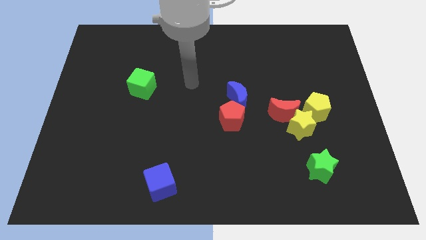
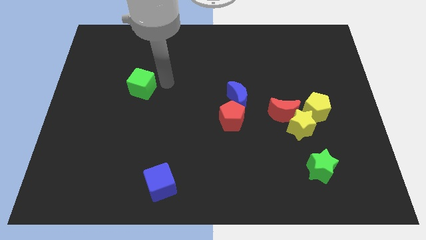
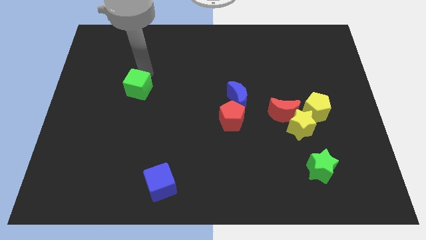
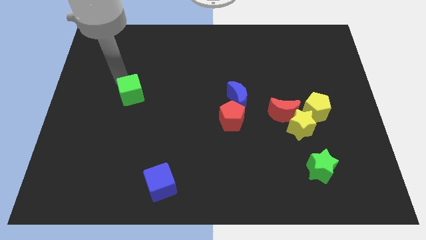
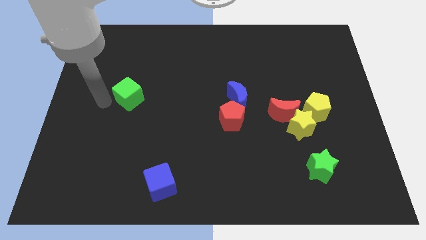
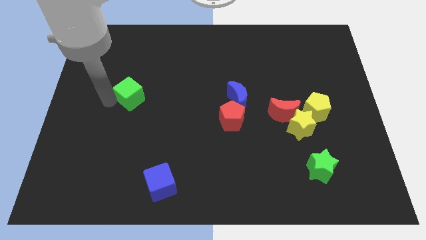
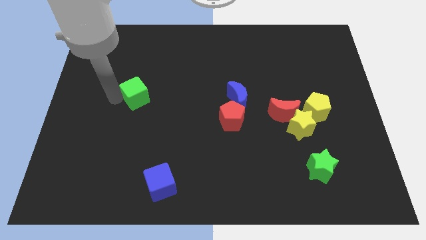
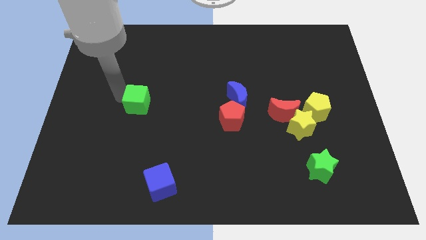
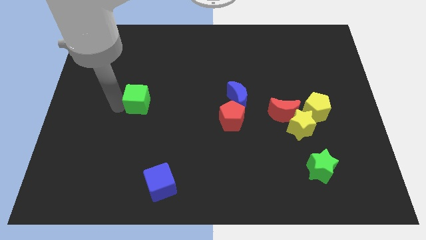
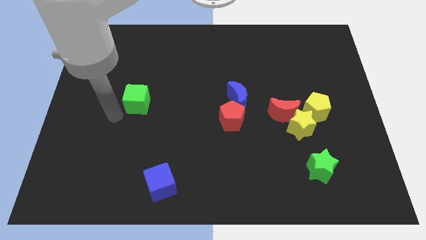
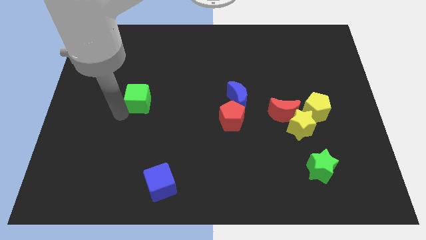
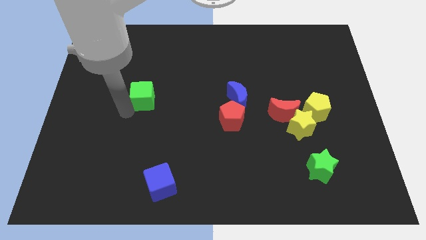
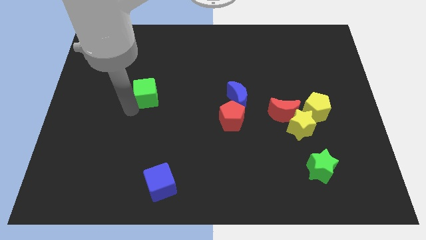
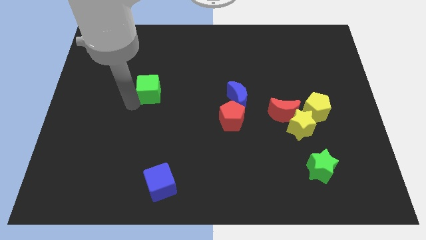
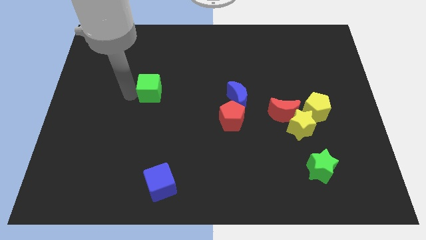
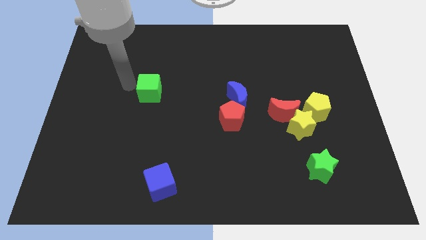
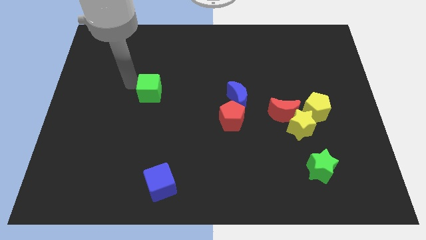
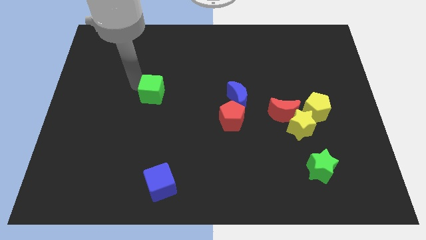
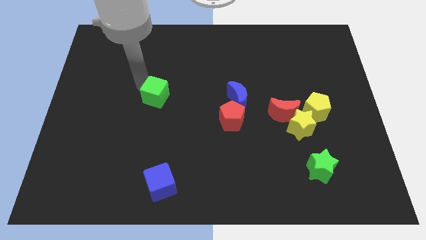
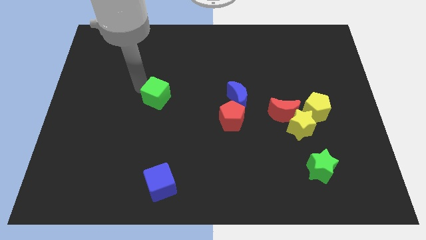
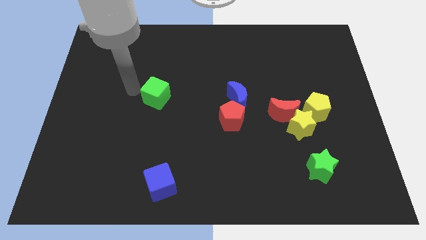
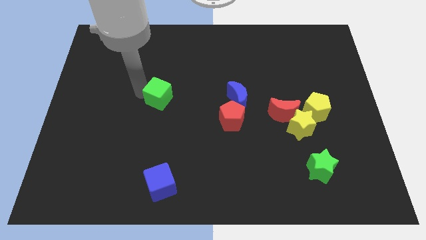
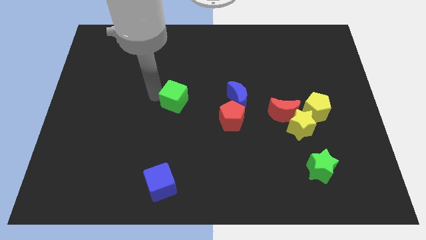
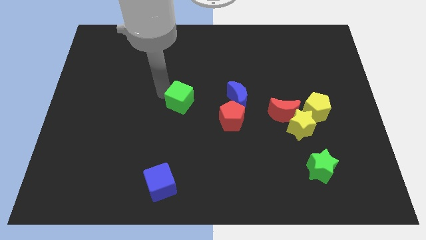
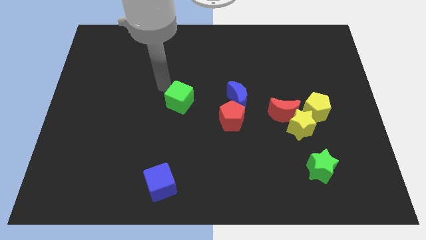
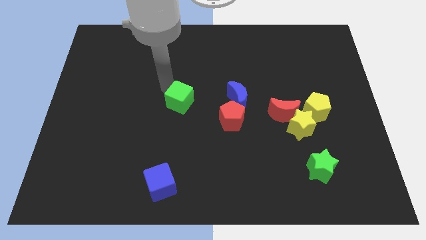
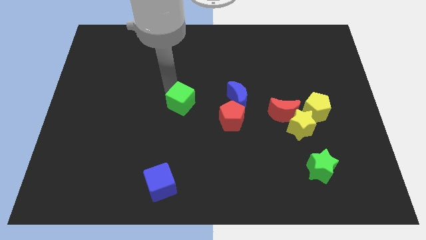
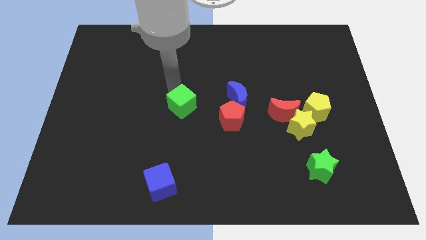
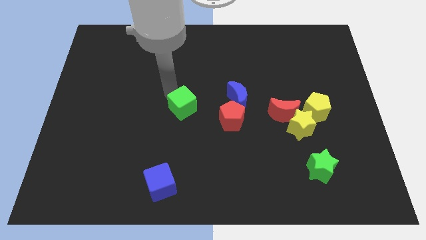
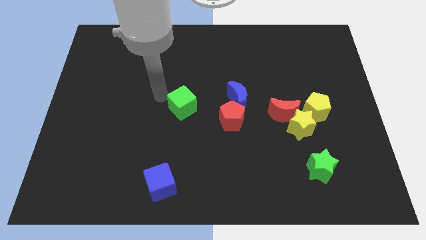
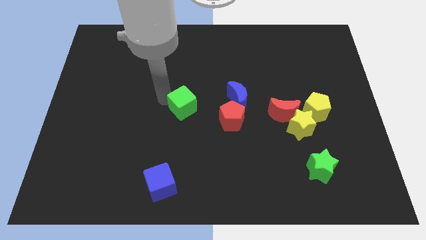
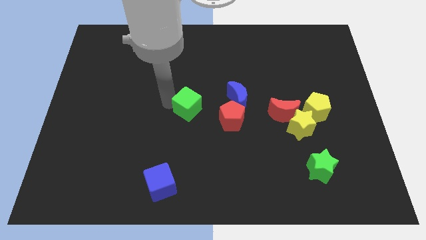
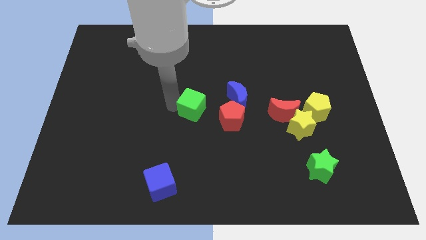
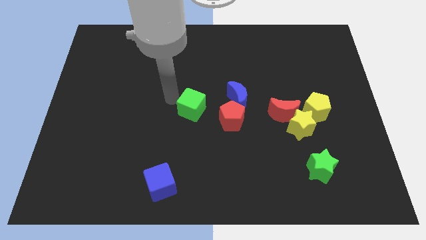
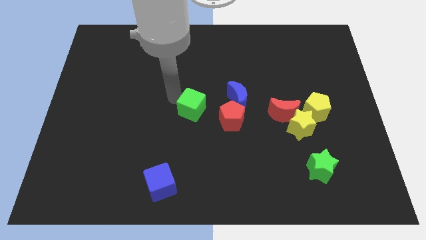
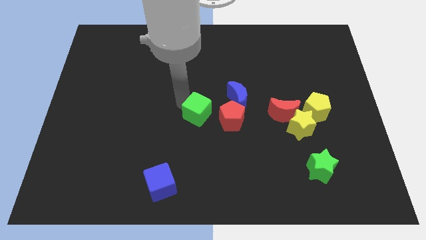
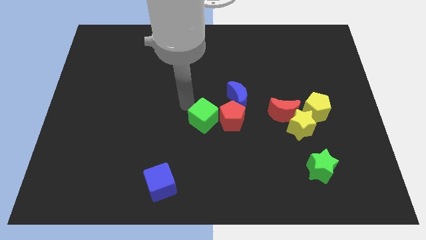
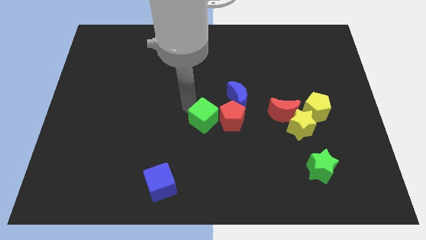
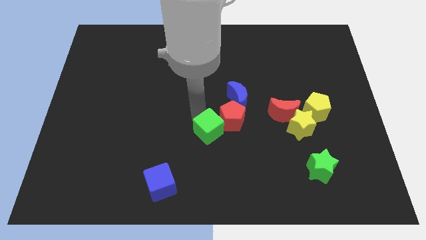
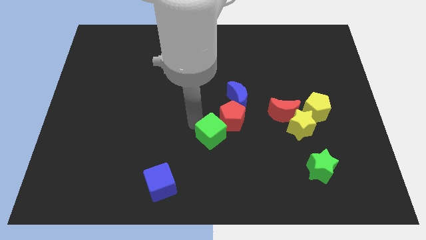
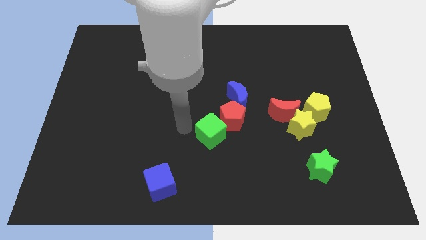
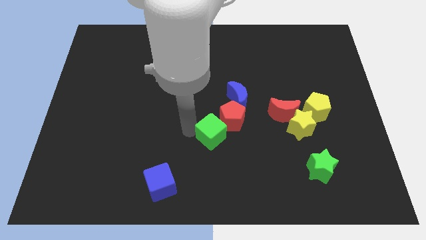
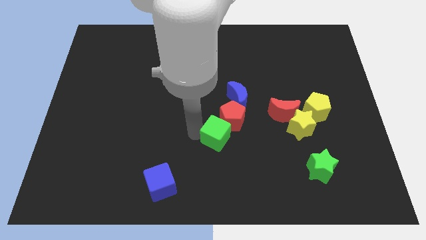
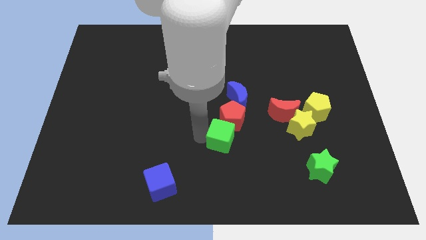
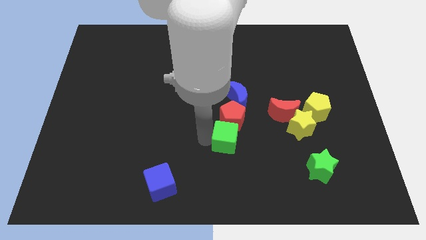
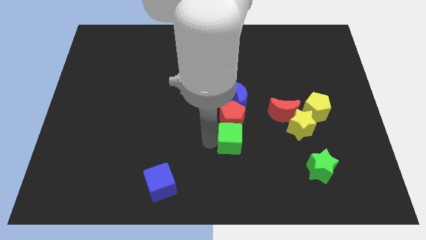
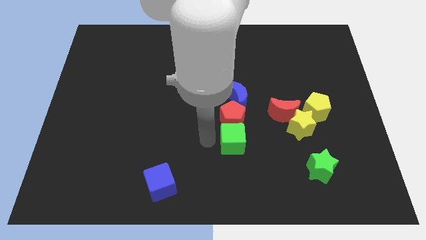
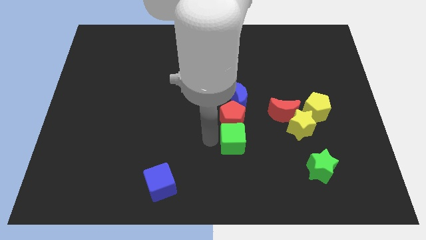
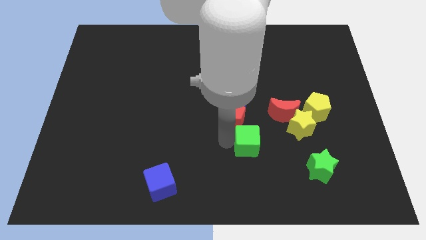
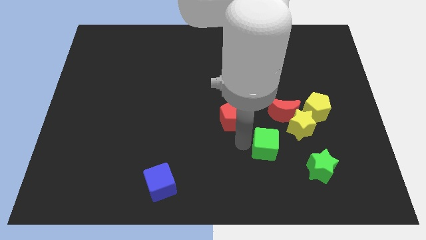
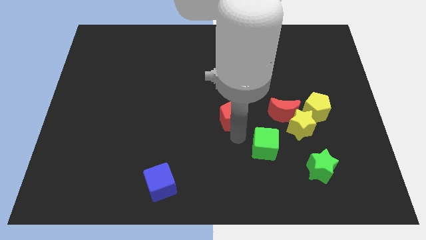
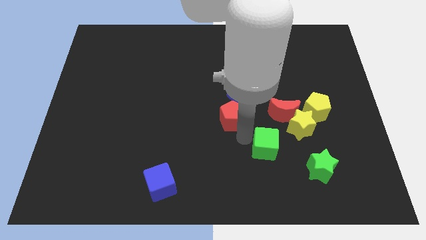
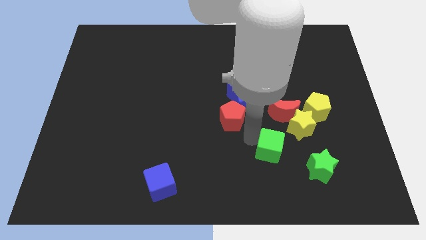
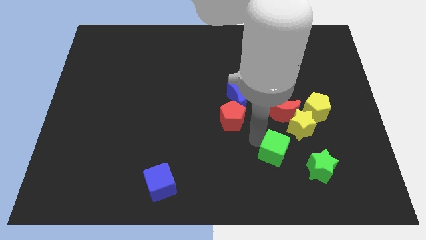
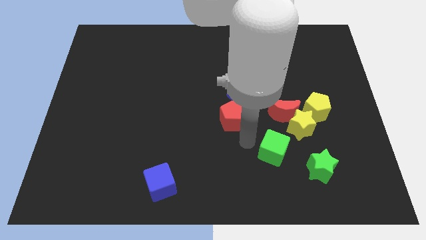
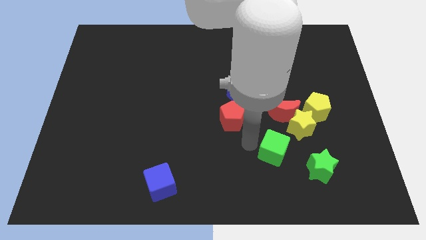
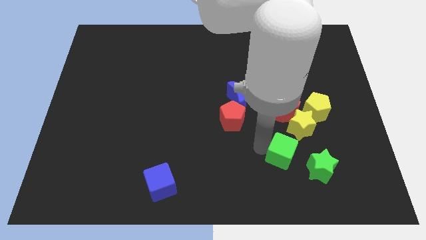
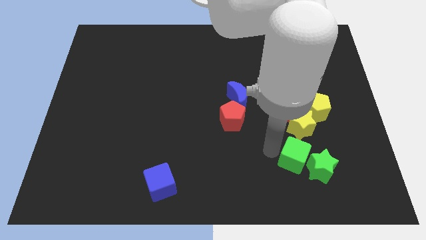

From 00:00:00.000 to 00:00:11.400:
push the green cube towards the green star

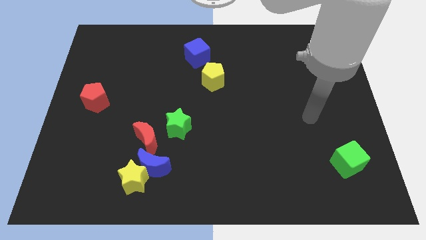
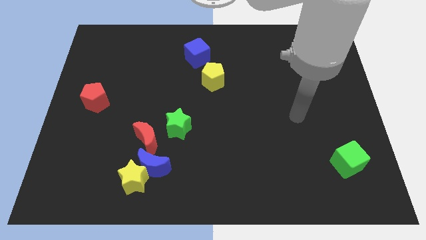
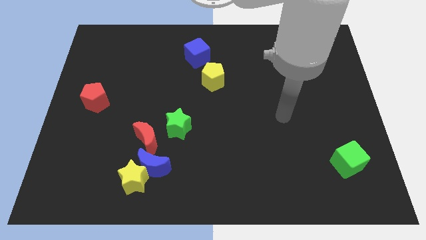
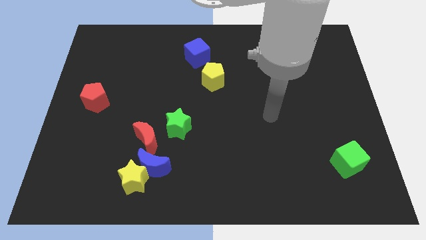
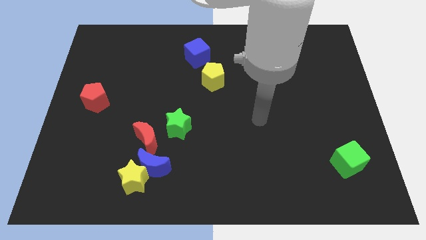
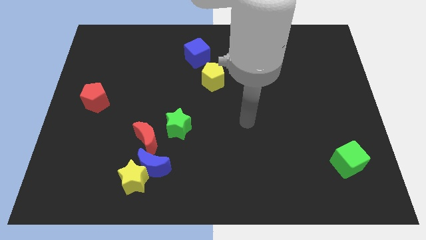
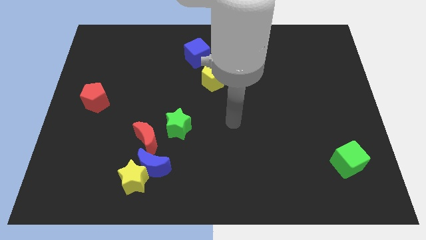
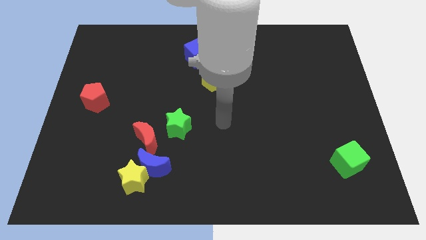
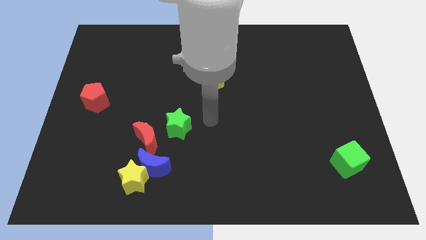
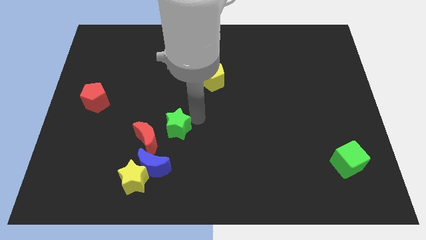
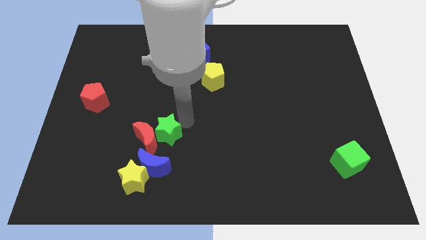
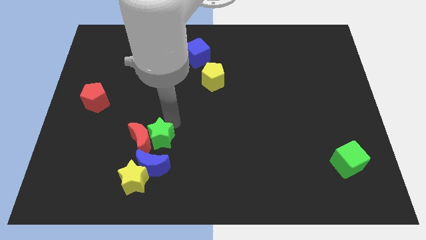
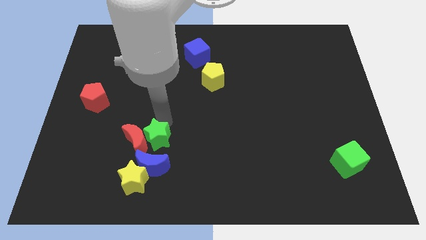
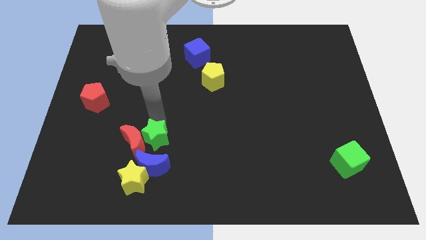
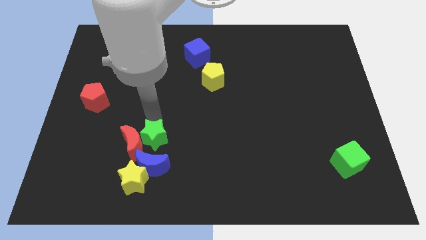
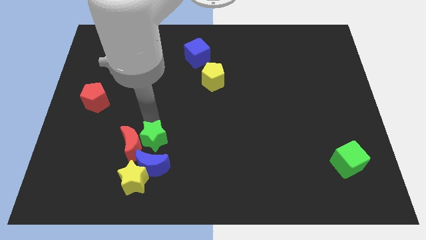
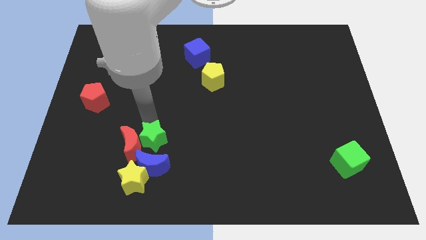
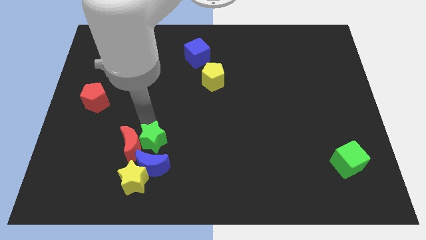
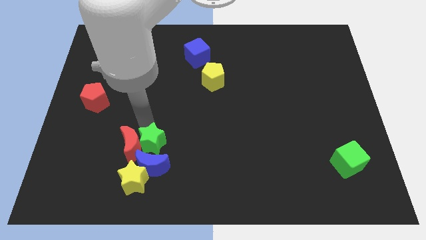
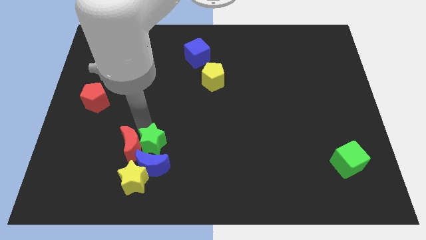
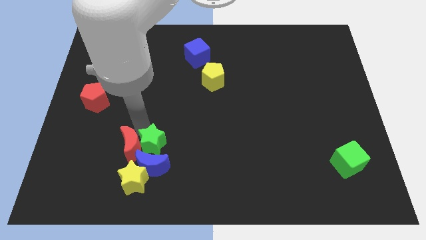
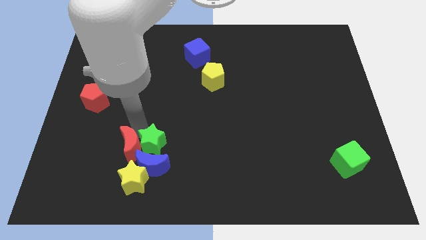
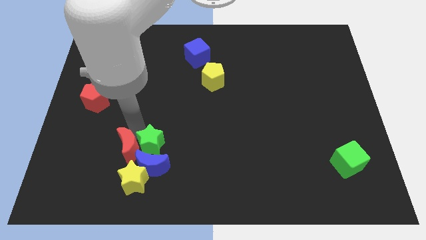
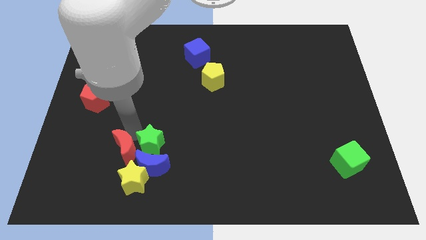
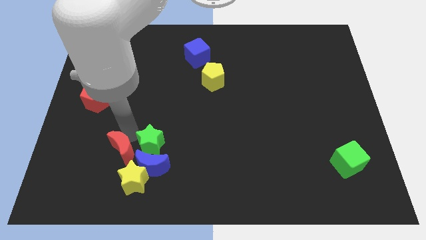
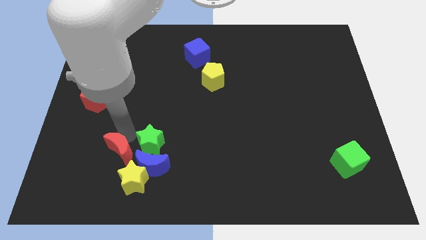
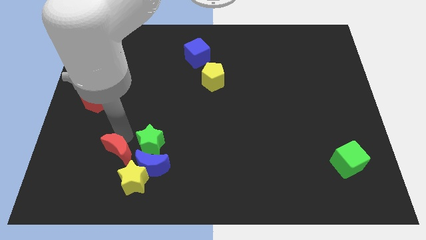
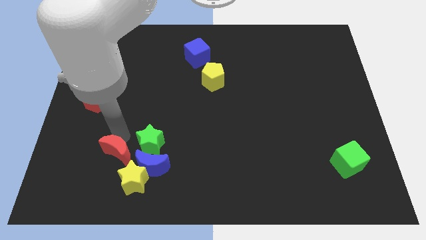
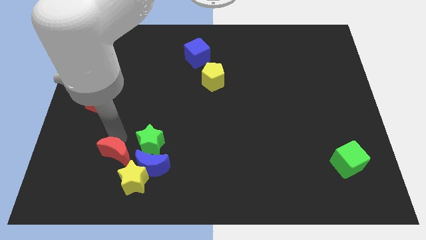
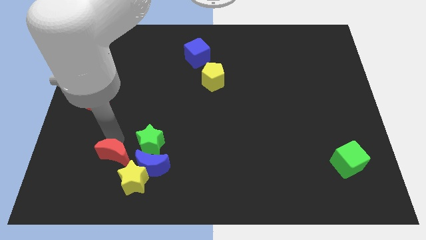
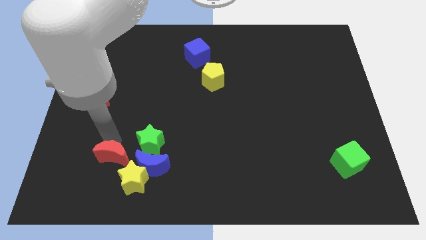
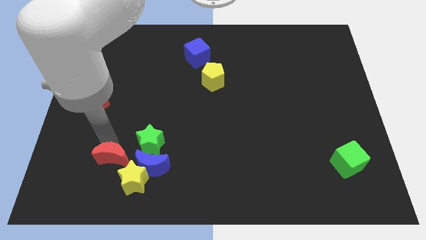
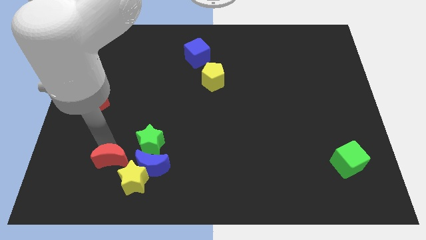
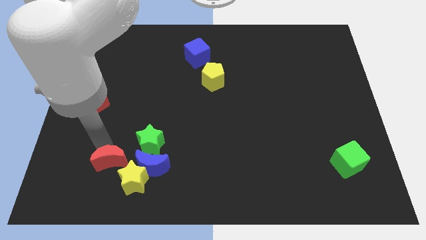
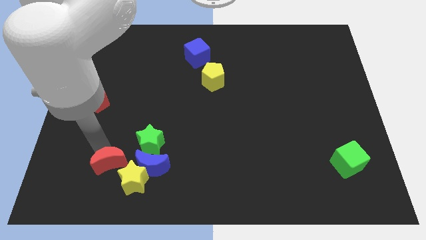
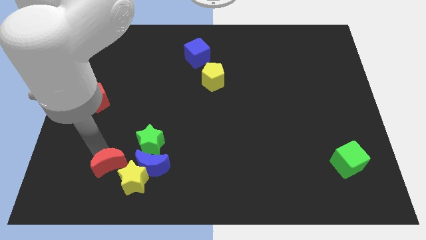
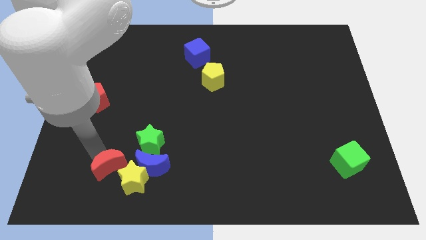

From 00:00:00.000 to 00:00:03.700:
slide the red moon to the yellow star
